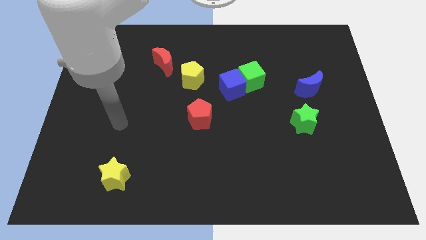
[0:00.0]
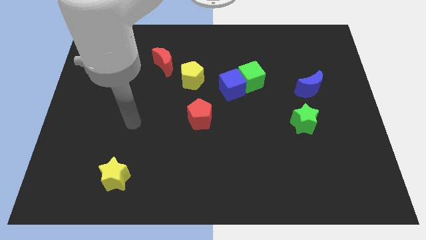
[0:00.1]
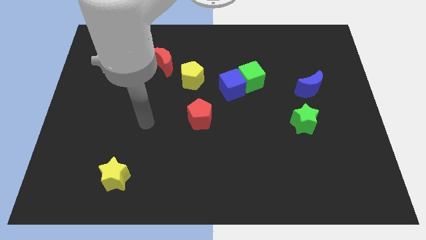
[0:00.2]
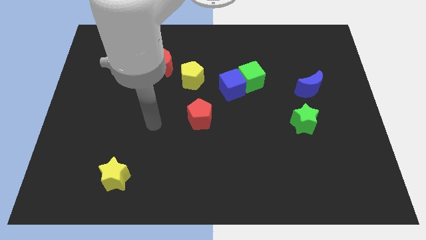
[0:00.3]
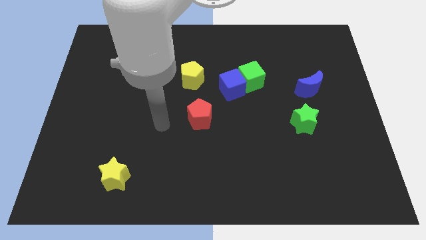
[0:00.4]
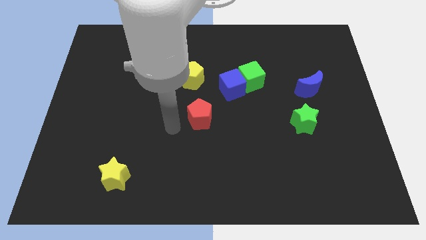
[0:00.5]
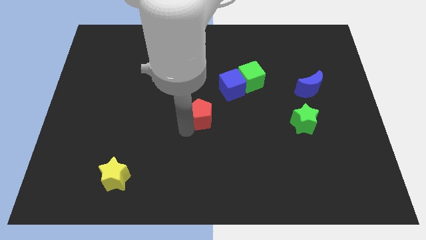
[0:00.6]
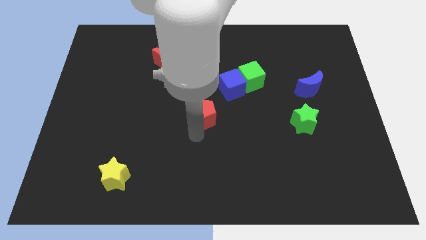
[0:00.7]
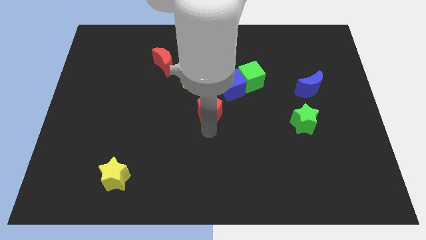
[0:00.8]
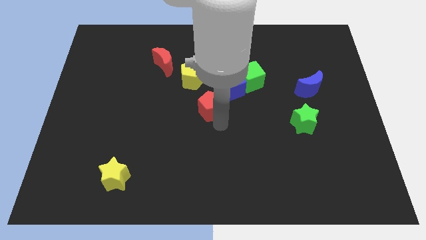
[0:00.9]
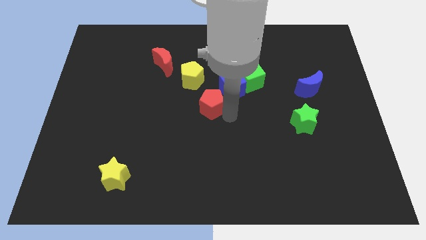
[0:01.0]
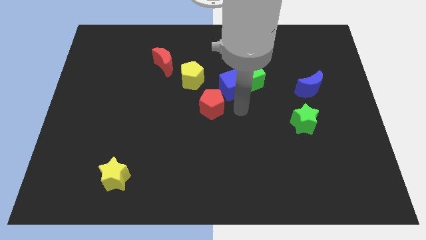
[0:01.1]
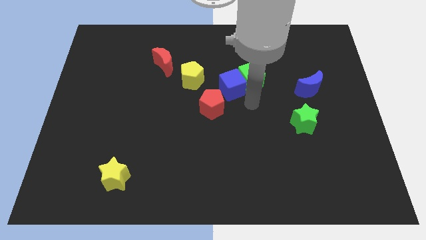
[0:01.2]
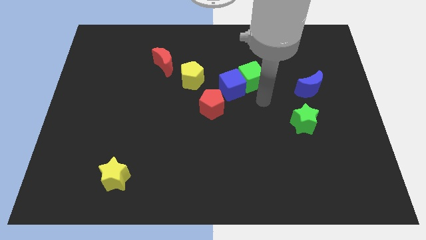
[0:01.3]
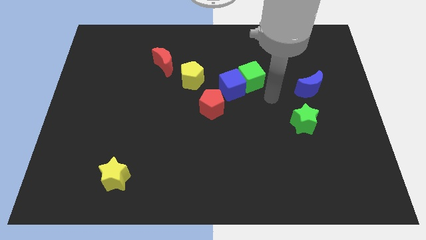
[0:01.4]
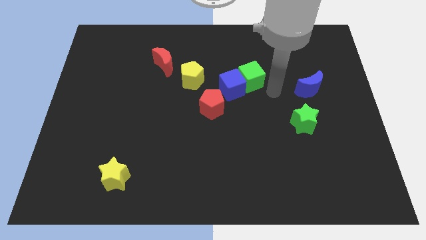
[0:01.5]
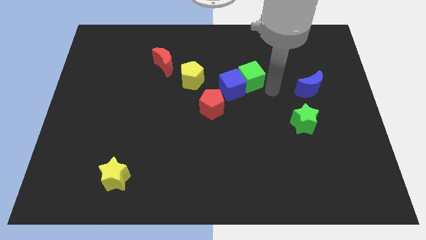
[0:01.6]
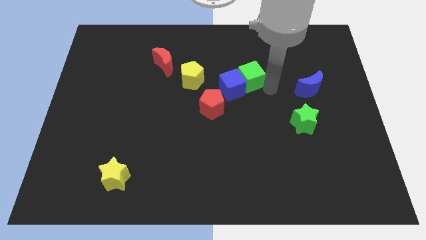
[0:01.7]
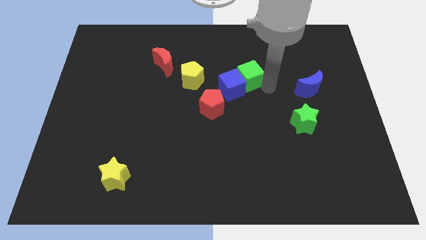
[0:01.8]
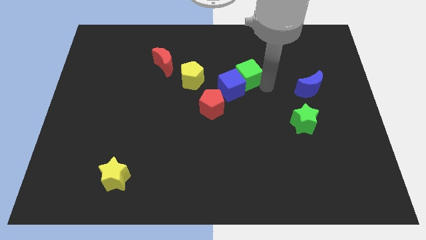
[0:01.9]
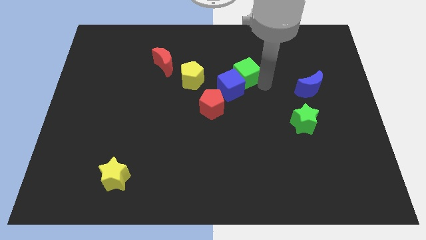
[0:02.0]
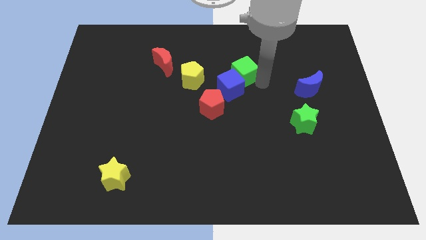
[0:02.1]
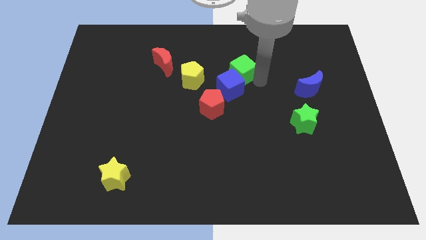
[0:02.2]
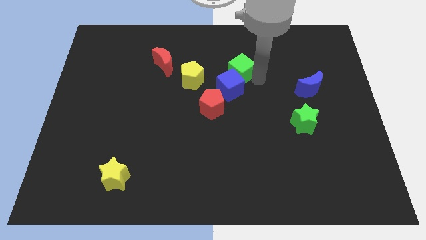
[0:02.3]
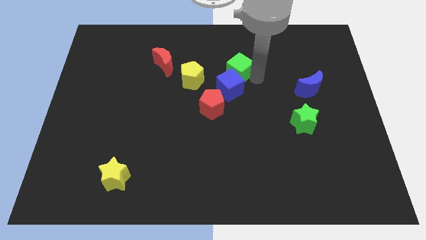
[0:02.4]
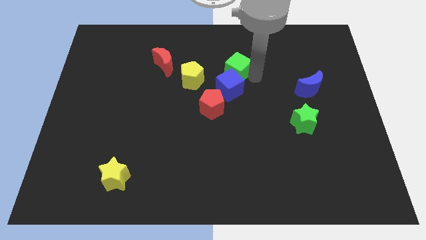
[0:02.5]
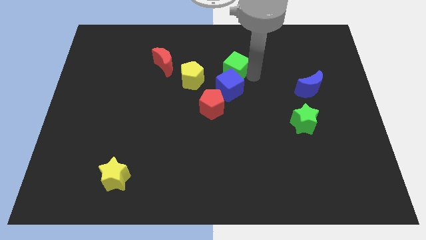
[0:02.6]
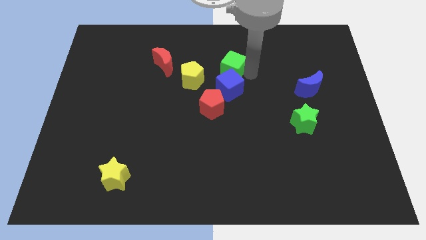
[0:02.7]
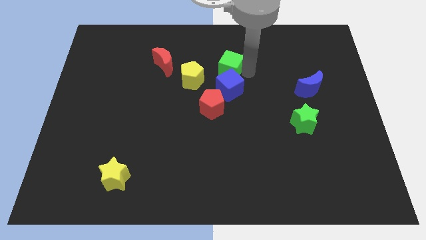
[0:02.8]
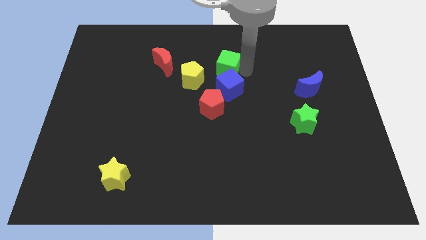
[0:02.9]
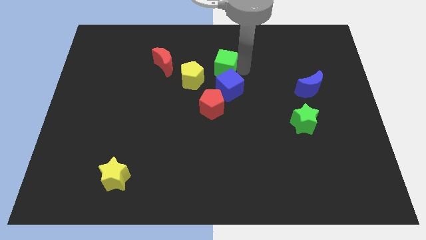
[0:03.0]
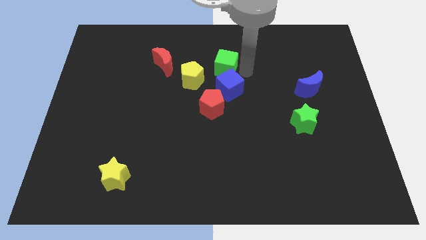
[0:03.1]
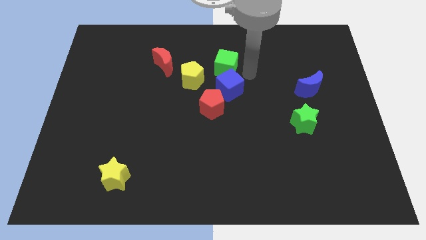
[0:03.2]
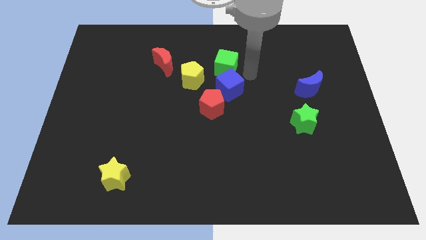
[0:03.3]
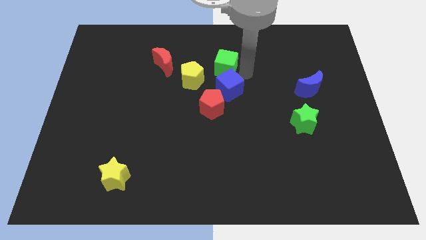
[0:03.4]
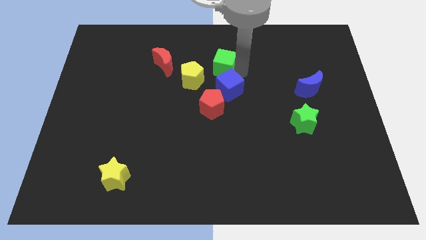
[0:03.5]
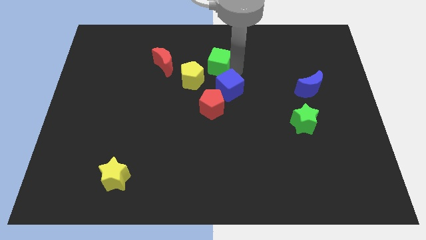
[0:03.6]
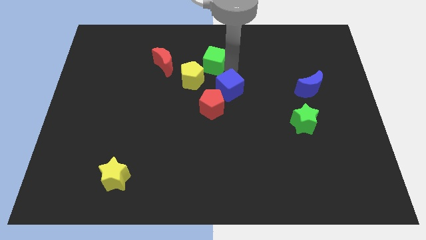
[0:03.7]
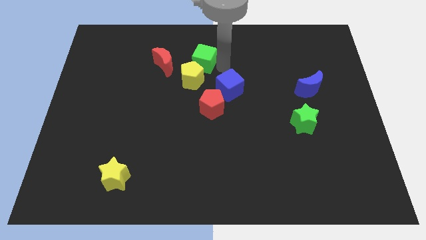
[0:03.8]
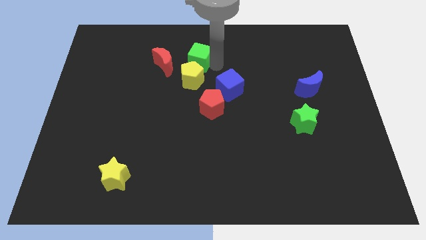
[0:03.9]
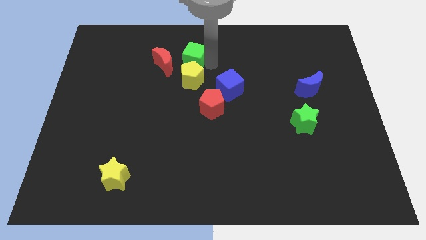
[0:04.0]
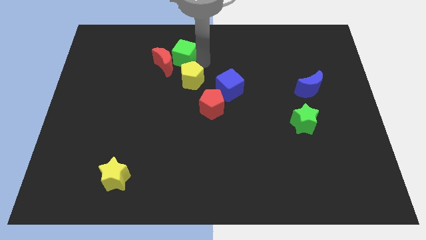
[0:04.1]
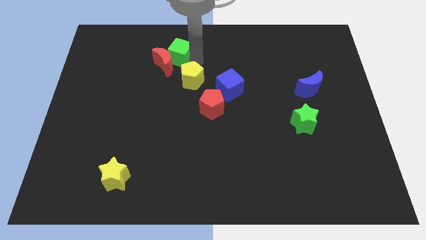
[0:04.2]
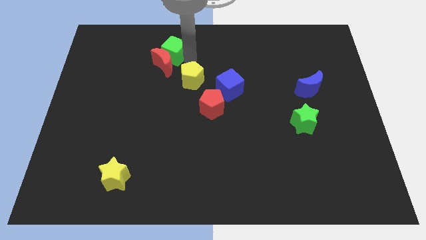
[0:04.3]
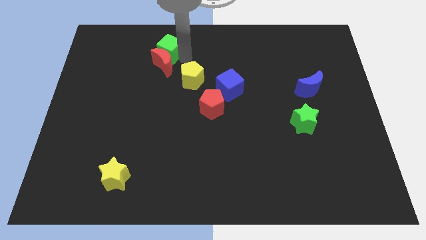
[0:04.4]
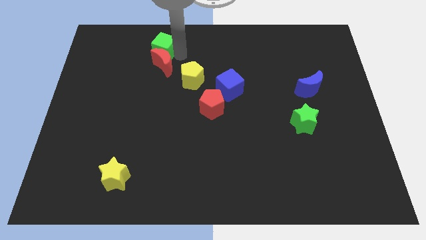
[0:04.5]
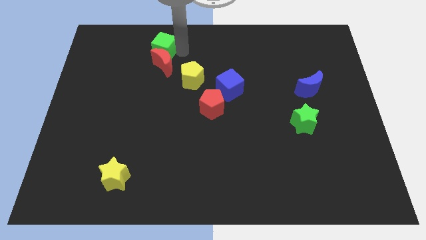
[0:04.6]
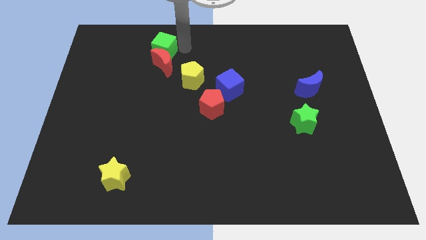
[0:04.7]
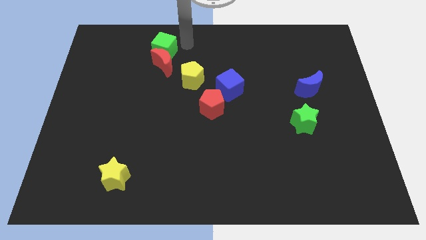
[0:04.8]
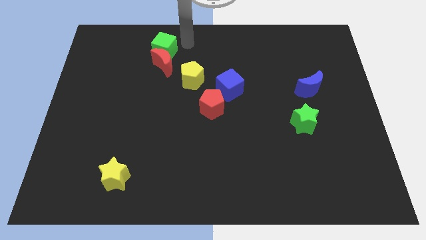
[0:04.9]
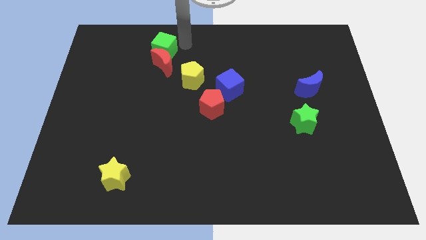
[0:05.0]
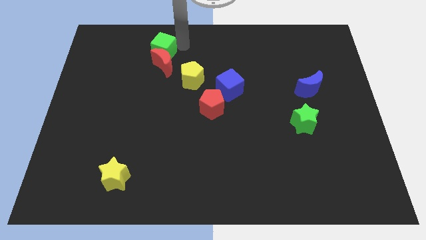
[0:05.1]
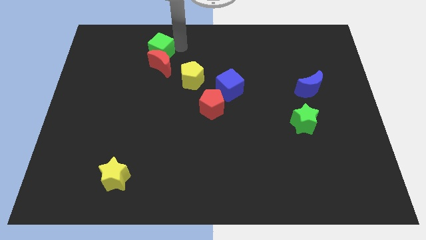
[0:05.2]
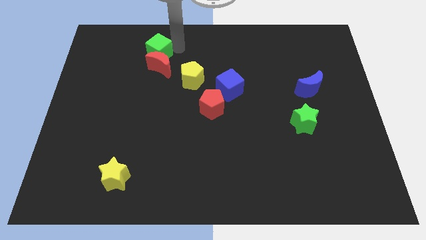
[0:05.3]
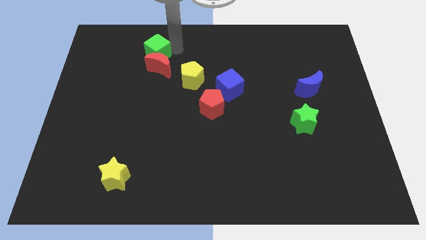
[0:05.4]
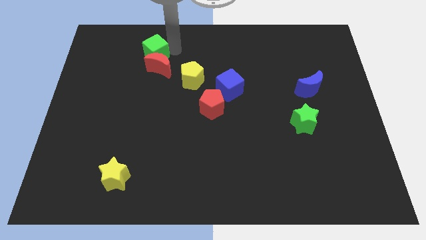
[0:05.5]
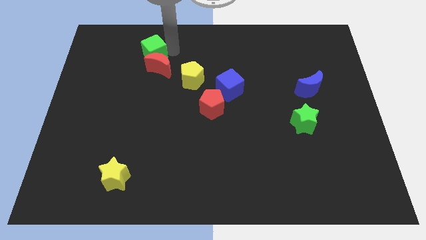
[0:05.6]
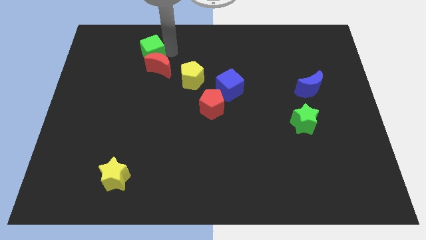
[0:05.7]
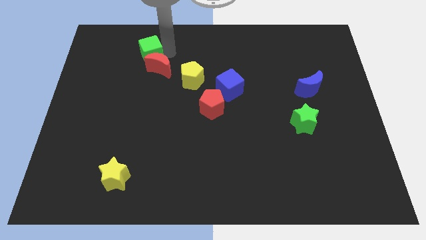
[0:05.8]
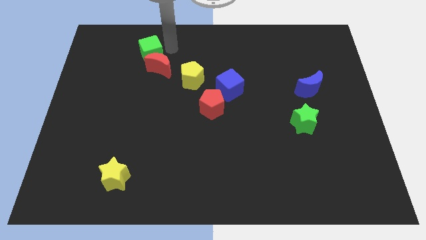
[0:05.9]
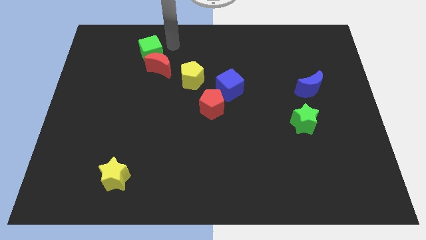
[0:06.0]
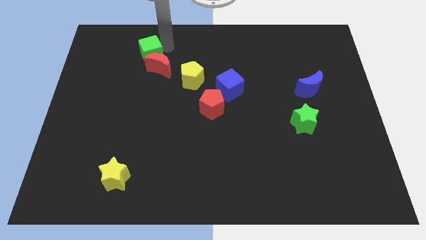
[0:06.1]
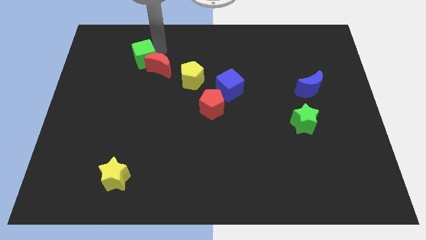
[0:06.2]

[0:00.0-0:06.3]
put the green cube left of the red moon

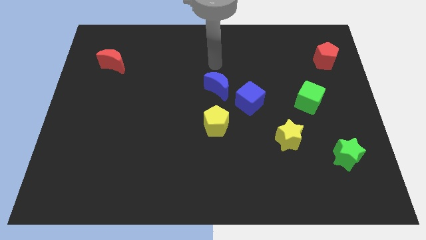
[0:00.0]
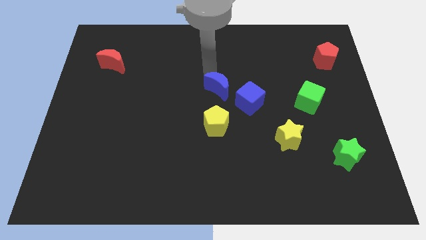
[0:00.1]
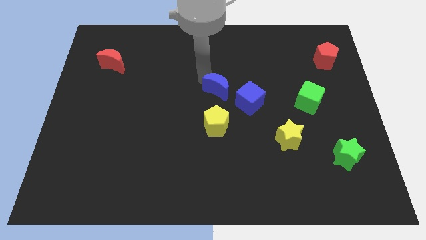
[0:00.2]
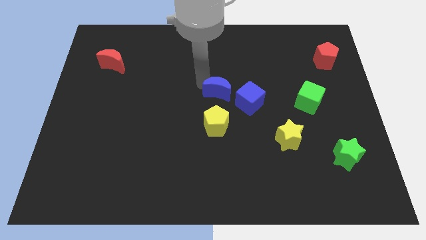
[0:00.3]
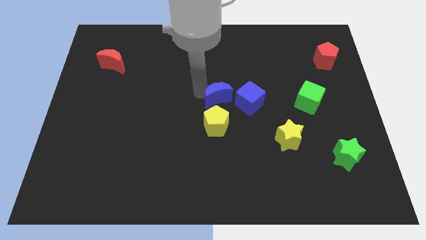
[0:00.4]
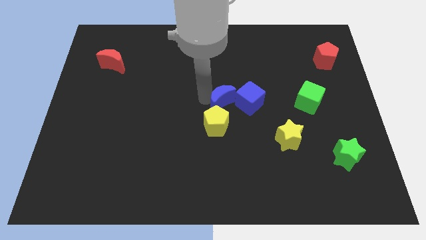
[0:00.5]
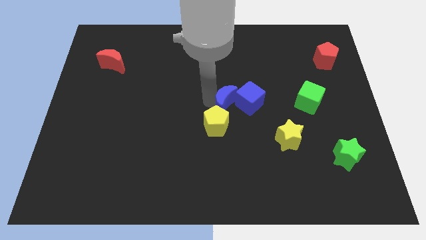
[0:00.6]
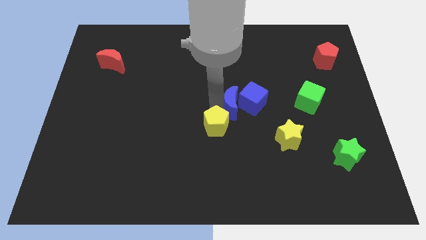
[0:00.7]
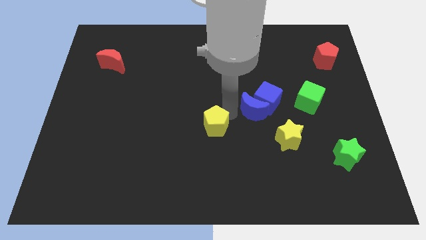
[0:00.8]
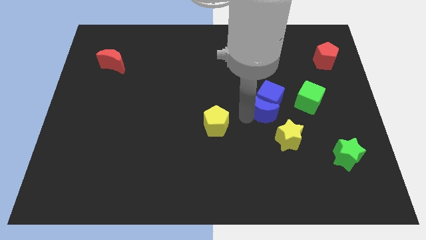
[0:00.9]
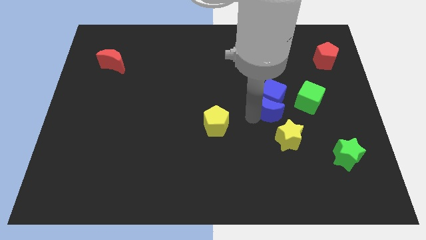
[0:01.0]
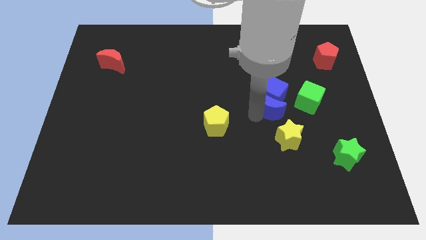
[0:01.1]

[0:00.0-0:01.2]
put the blue cube to the top left of the green cube

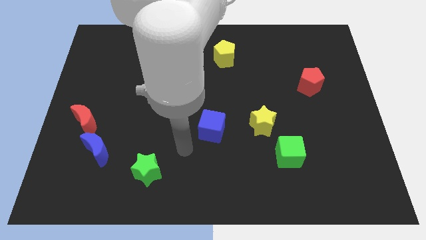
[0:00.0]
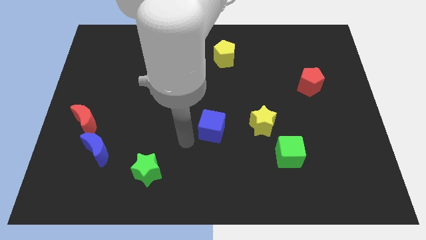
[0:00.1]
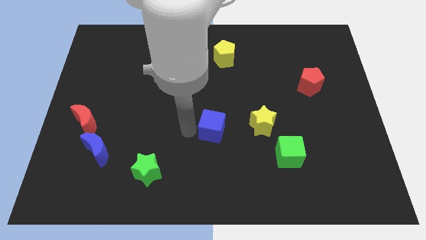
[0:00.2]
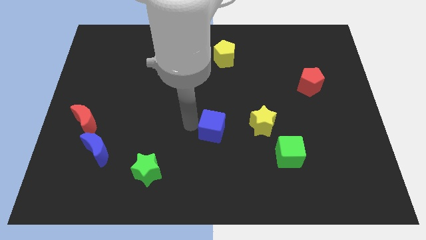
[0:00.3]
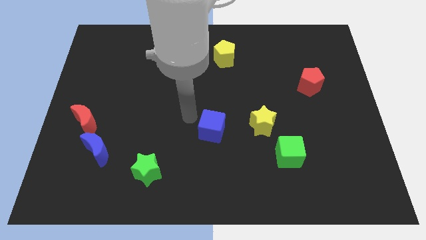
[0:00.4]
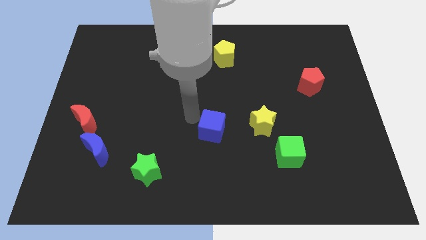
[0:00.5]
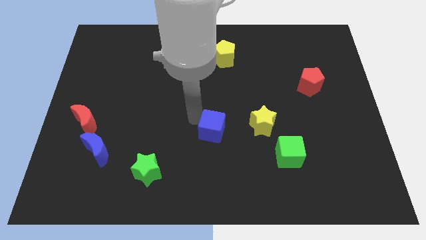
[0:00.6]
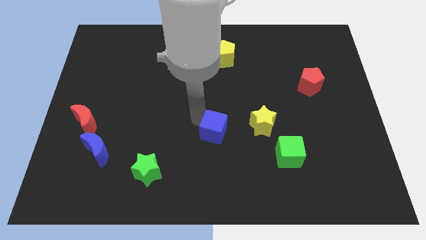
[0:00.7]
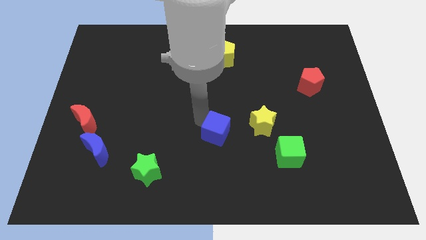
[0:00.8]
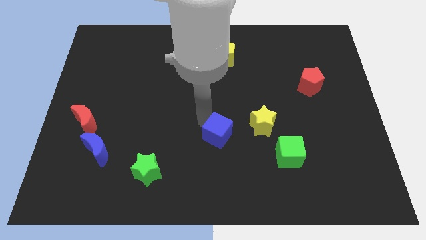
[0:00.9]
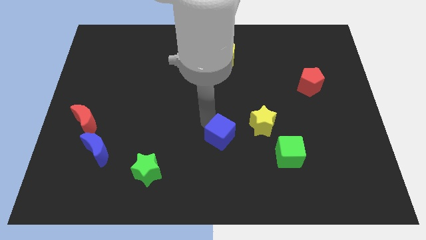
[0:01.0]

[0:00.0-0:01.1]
move the blue cube diagonally down and to the left of the yellow star
